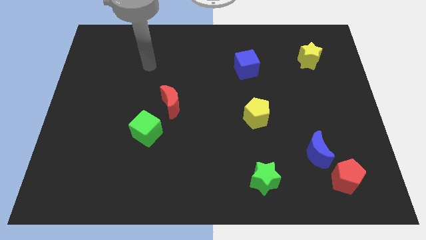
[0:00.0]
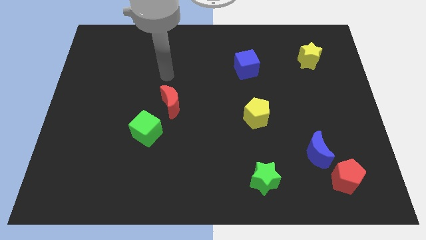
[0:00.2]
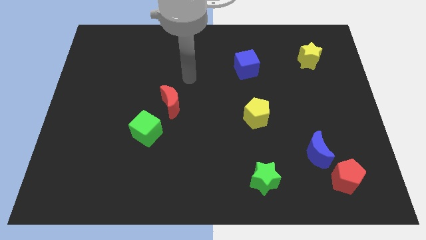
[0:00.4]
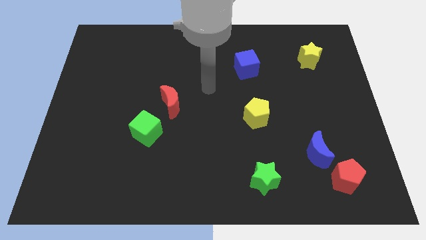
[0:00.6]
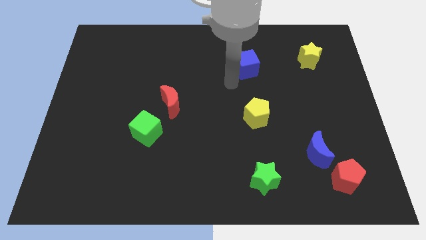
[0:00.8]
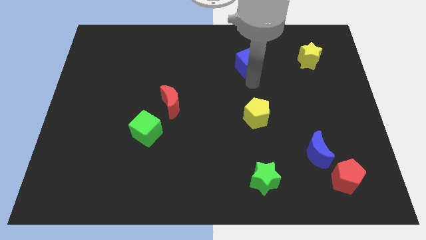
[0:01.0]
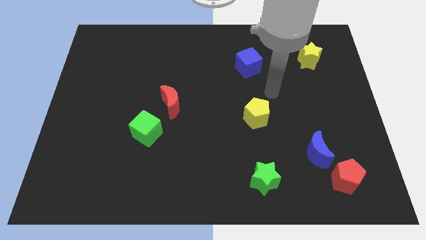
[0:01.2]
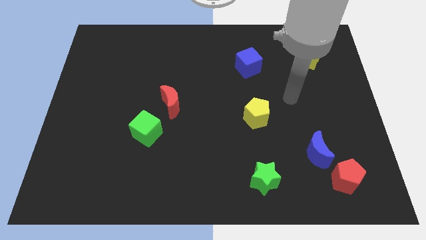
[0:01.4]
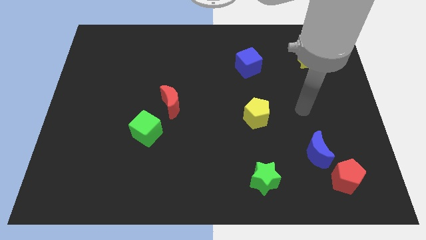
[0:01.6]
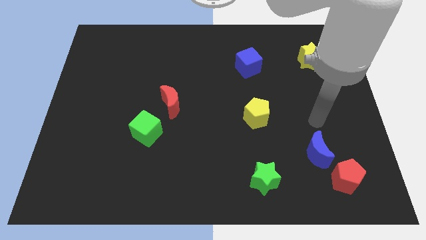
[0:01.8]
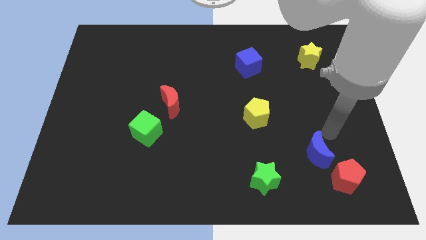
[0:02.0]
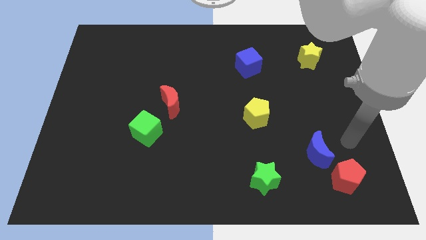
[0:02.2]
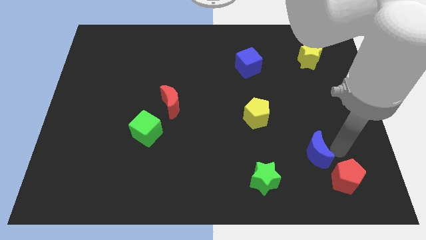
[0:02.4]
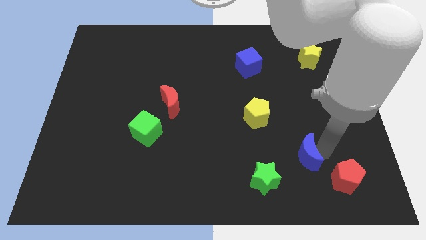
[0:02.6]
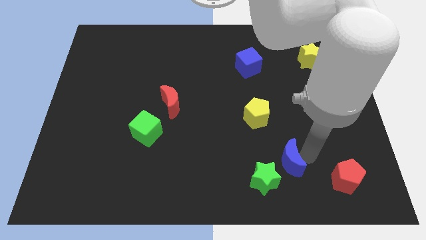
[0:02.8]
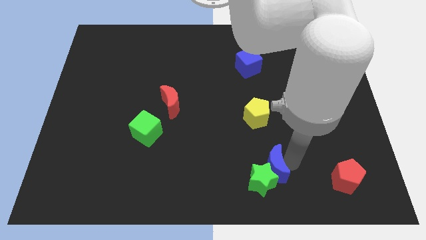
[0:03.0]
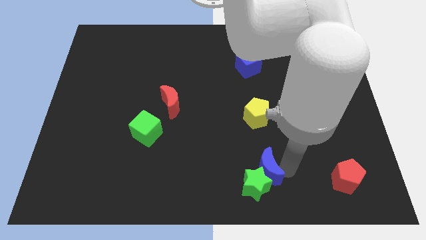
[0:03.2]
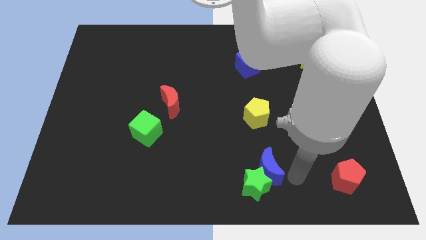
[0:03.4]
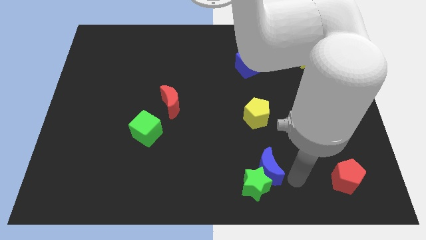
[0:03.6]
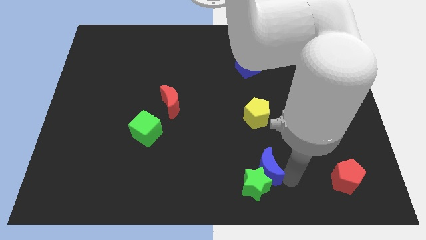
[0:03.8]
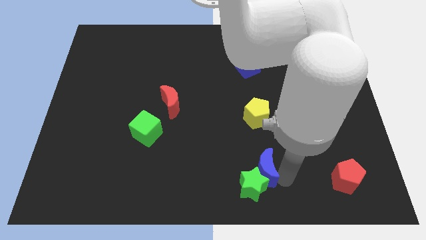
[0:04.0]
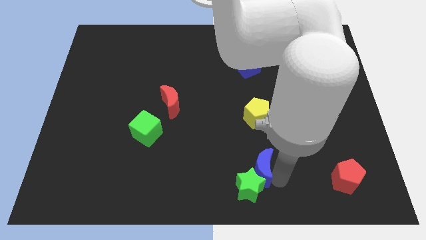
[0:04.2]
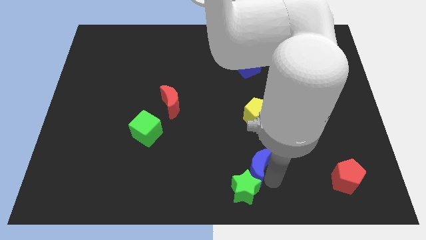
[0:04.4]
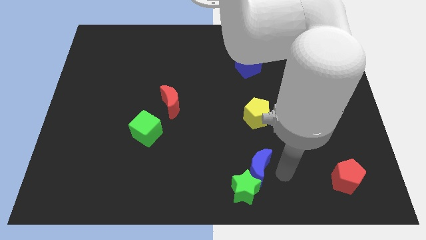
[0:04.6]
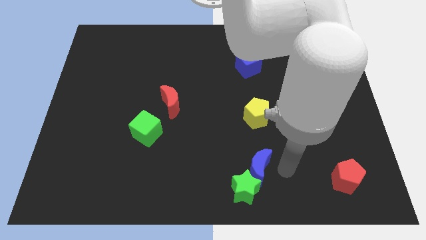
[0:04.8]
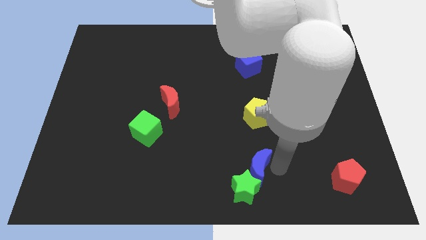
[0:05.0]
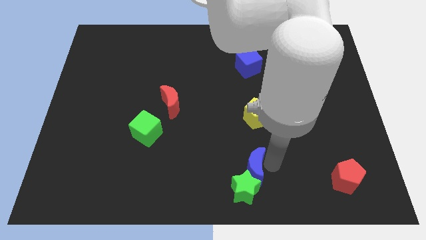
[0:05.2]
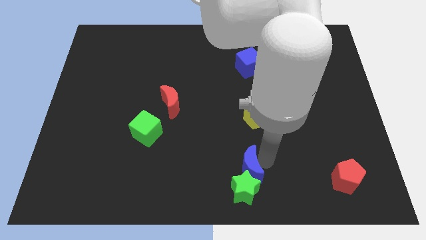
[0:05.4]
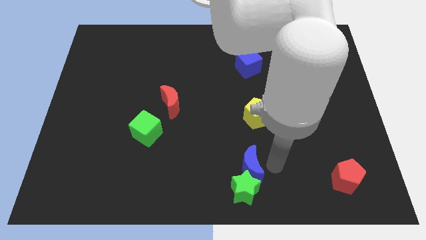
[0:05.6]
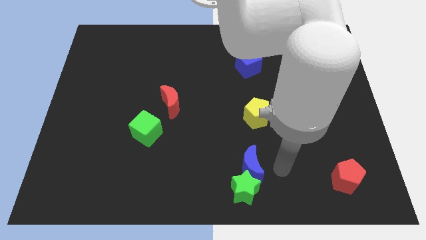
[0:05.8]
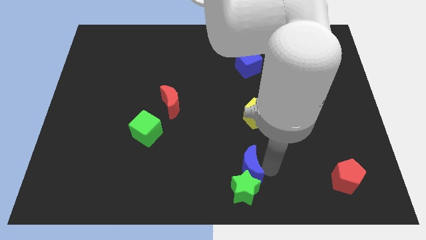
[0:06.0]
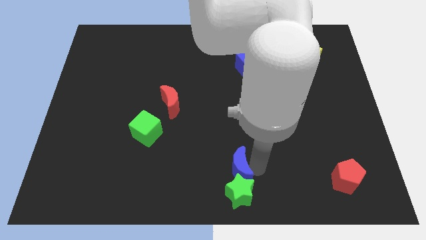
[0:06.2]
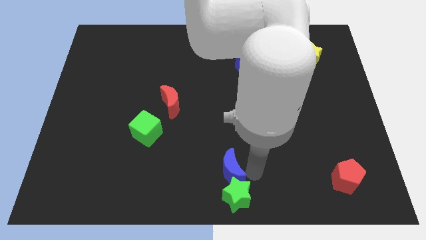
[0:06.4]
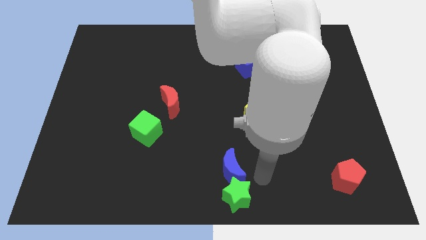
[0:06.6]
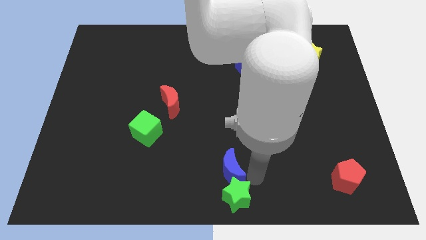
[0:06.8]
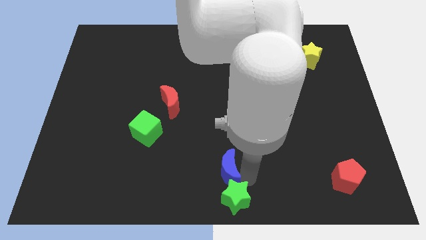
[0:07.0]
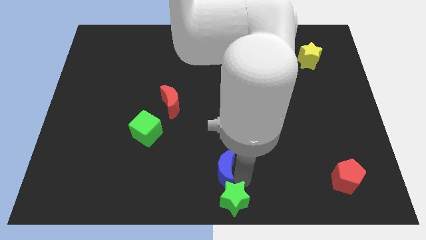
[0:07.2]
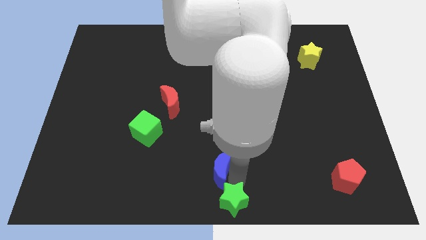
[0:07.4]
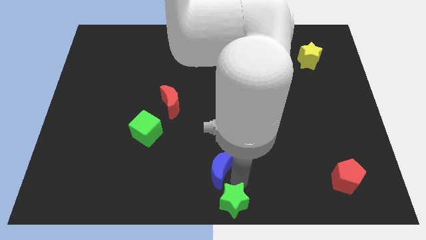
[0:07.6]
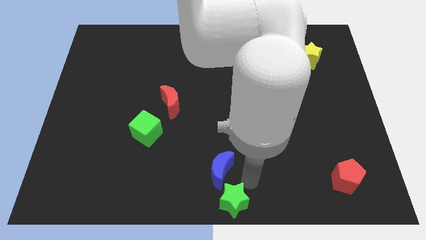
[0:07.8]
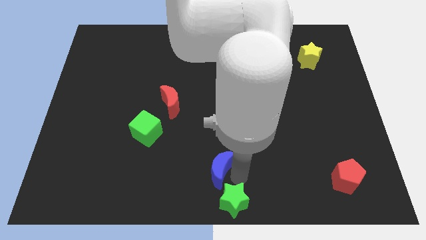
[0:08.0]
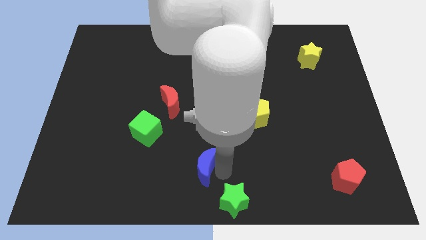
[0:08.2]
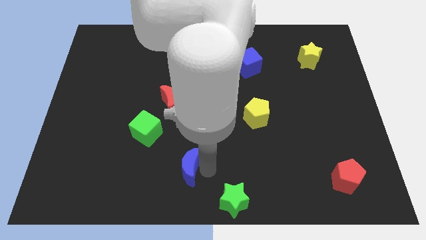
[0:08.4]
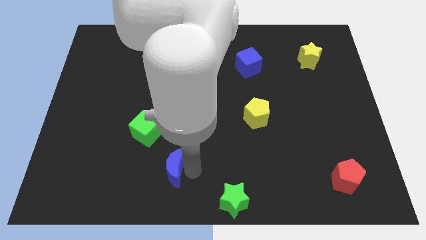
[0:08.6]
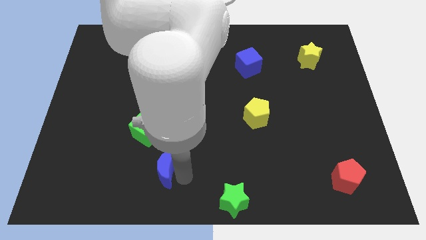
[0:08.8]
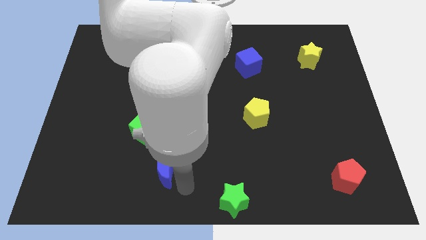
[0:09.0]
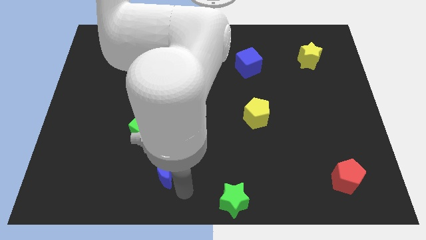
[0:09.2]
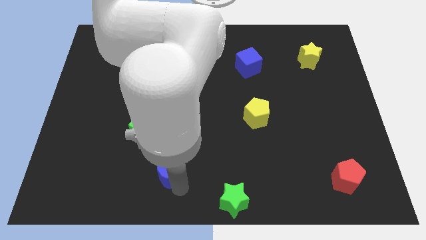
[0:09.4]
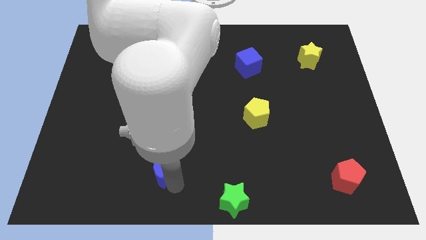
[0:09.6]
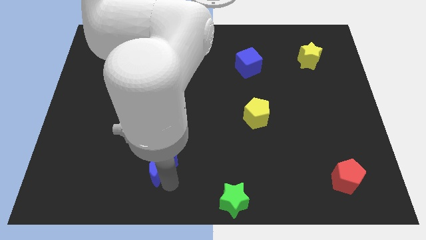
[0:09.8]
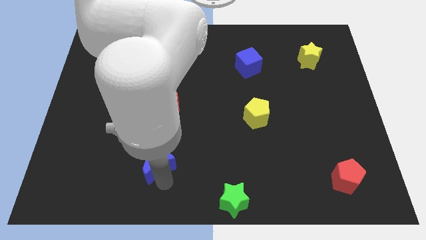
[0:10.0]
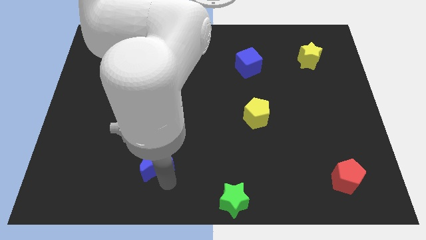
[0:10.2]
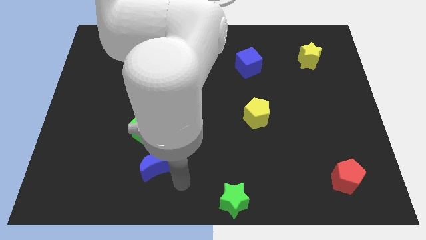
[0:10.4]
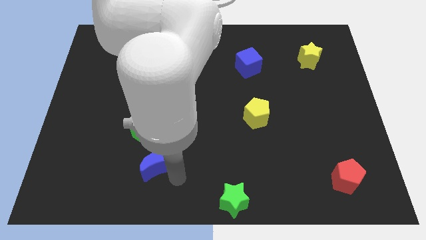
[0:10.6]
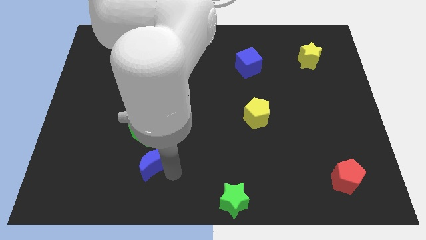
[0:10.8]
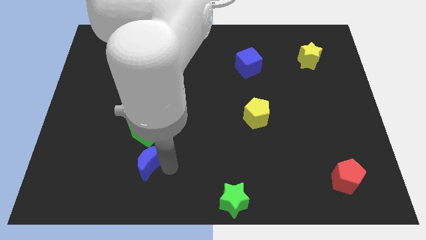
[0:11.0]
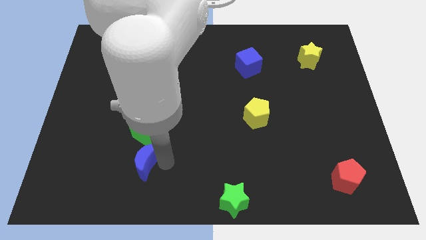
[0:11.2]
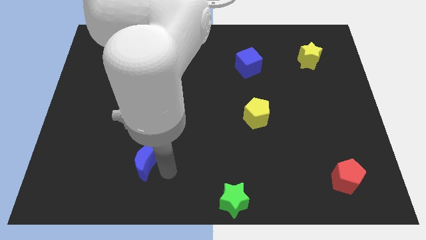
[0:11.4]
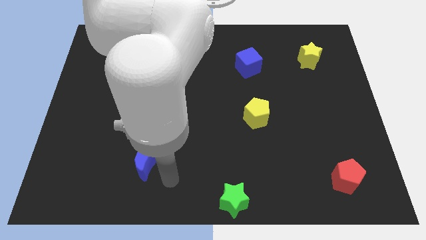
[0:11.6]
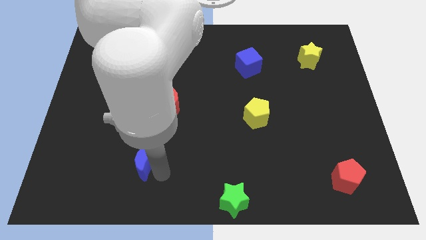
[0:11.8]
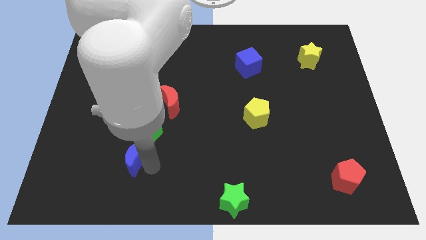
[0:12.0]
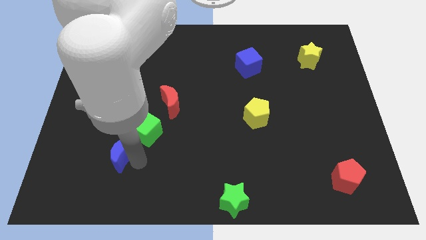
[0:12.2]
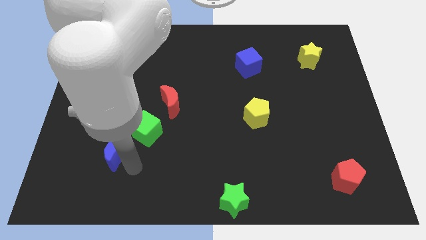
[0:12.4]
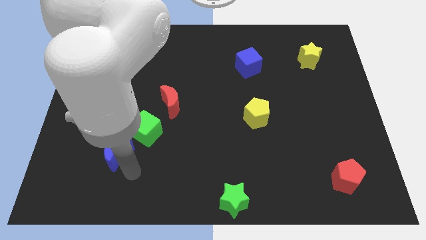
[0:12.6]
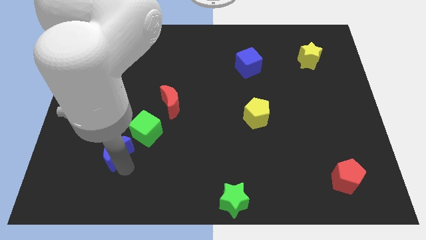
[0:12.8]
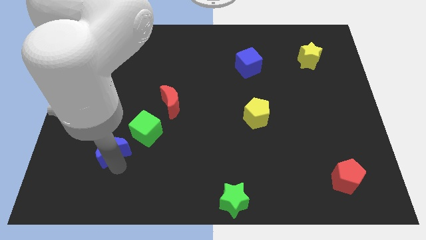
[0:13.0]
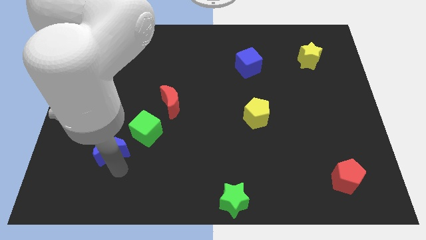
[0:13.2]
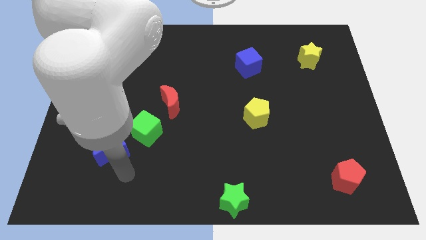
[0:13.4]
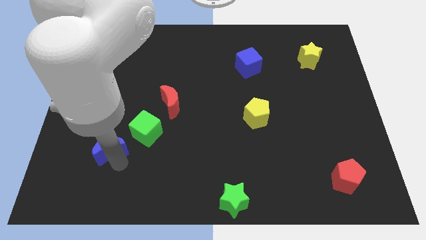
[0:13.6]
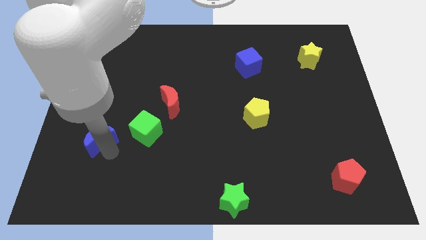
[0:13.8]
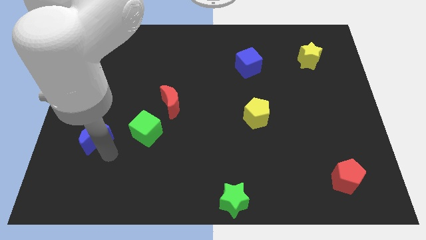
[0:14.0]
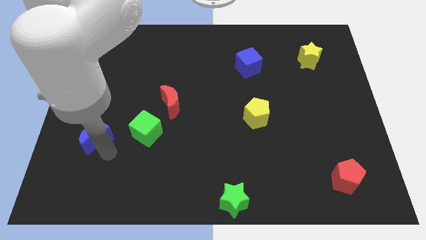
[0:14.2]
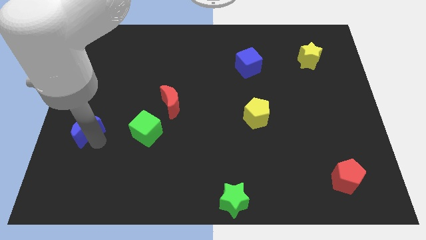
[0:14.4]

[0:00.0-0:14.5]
put the blue moon to the center left
